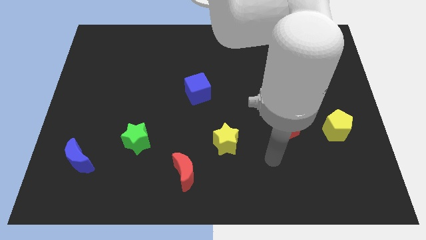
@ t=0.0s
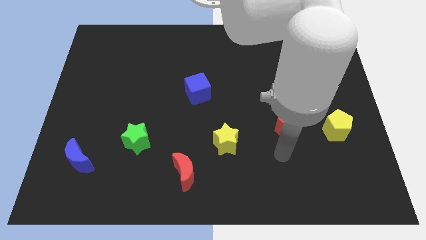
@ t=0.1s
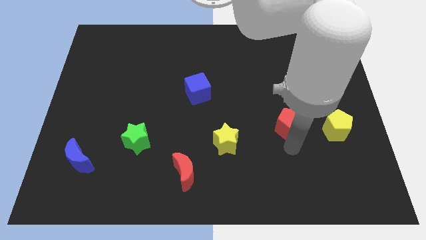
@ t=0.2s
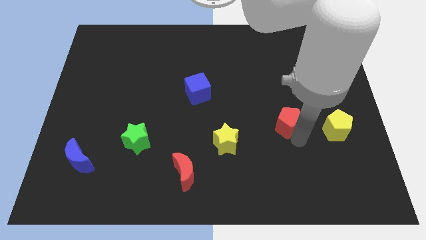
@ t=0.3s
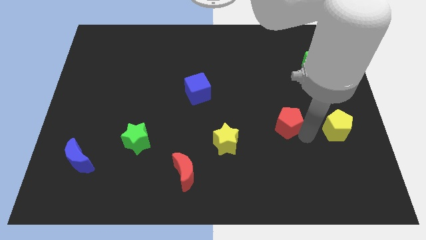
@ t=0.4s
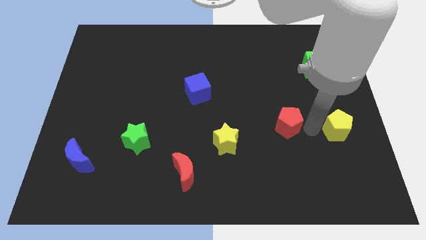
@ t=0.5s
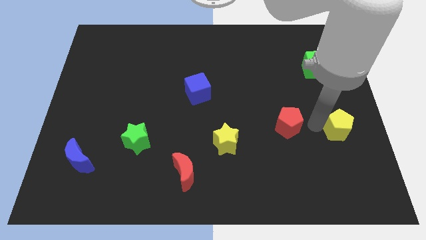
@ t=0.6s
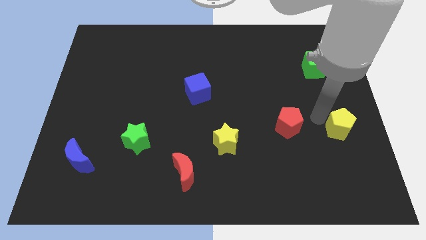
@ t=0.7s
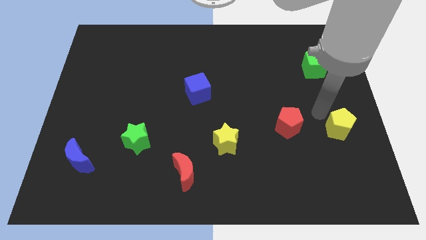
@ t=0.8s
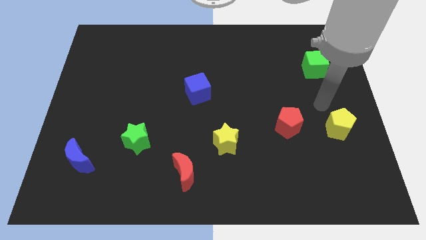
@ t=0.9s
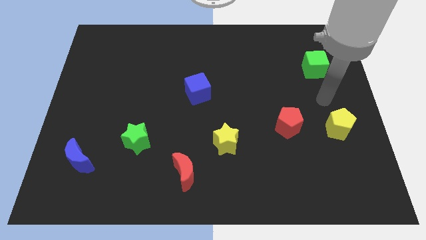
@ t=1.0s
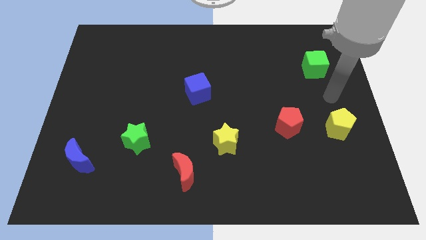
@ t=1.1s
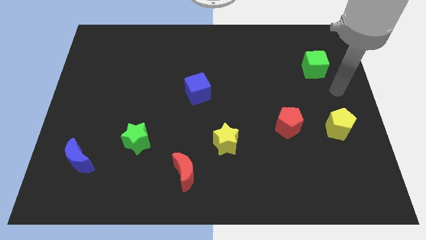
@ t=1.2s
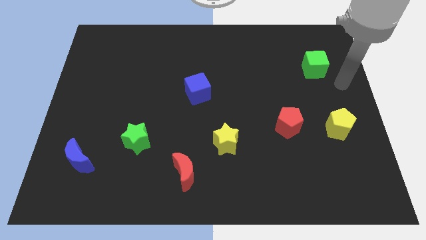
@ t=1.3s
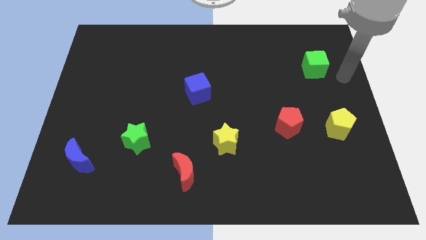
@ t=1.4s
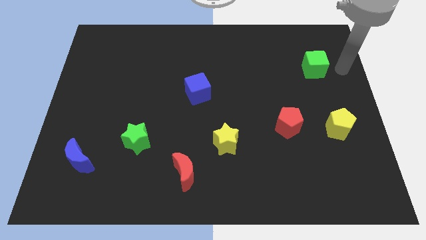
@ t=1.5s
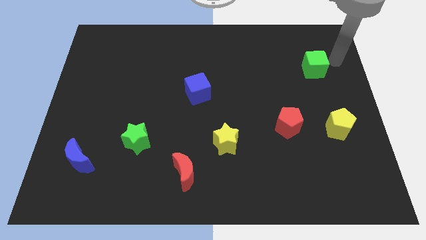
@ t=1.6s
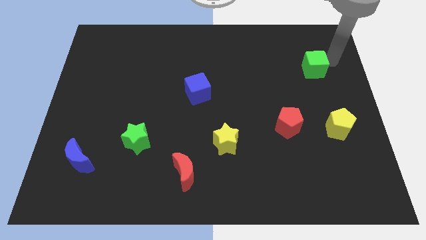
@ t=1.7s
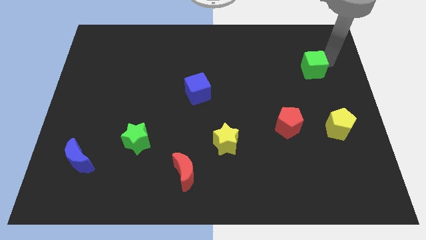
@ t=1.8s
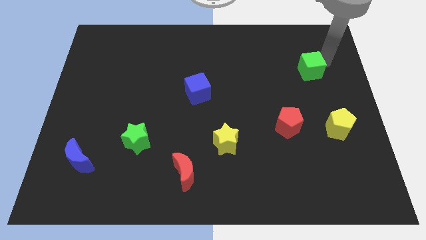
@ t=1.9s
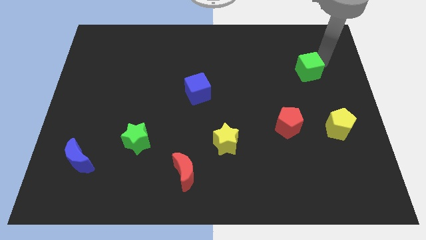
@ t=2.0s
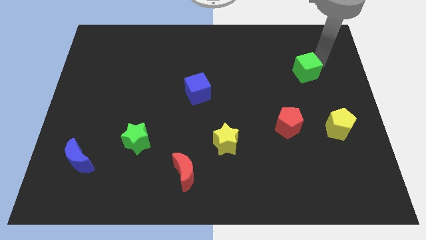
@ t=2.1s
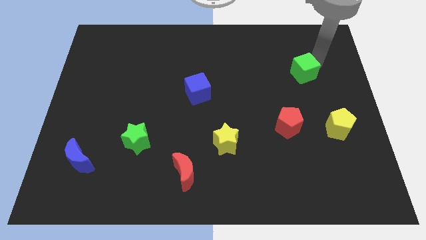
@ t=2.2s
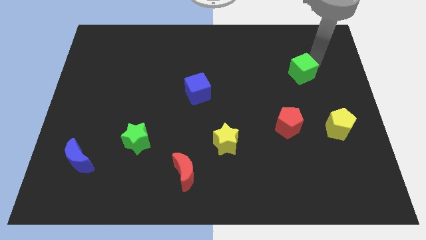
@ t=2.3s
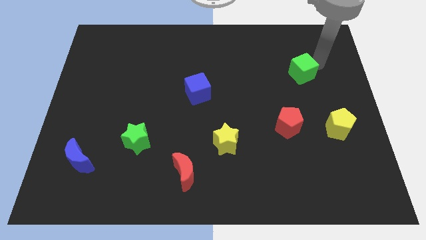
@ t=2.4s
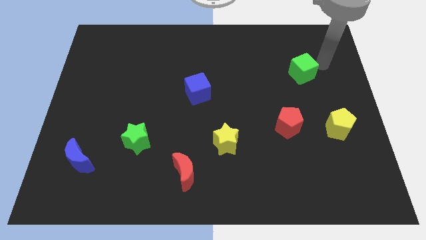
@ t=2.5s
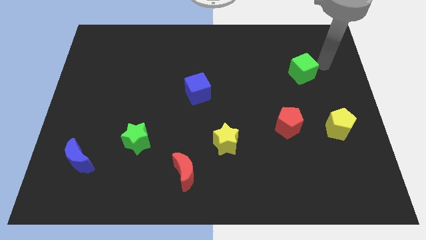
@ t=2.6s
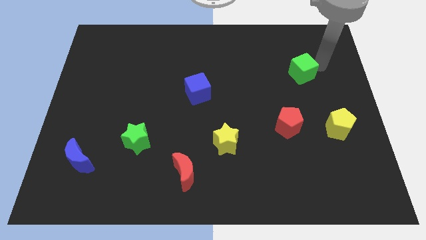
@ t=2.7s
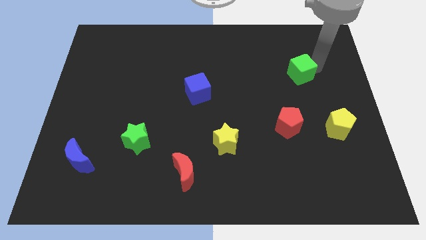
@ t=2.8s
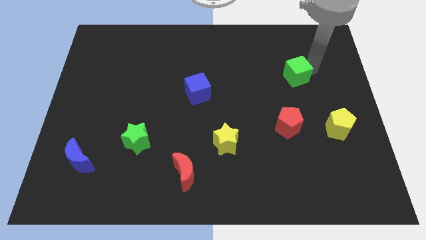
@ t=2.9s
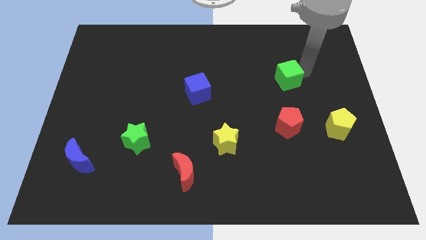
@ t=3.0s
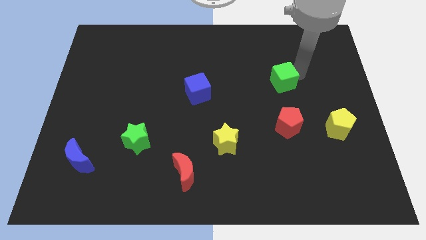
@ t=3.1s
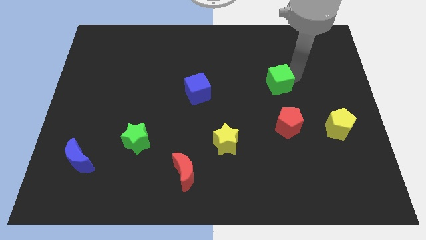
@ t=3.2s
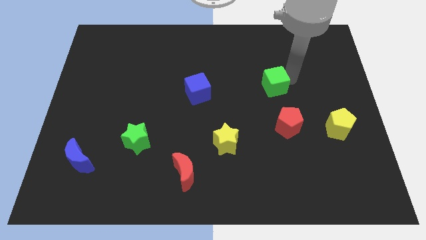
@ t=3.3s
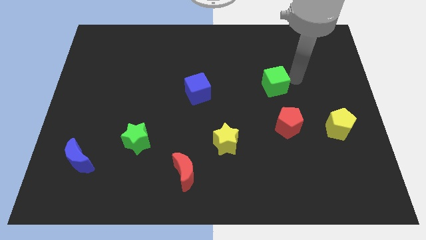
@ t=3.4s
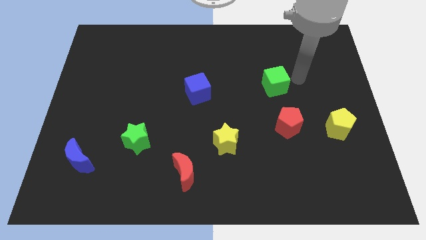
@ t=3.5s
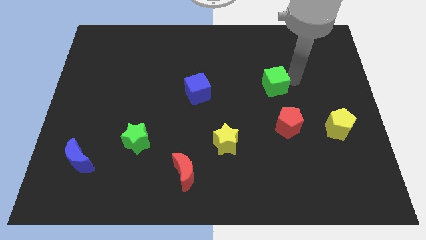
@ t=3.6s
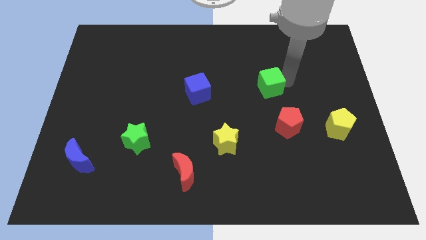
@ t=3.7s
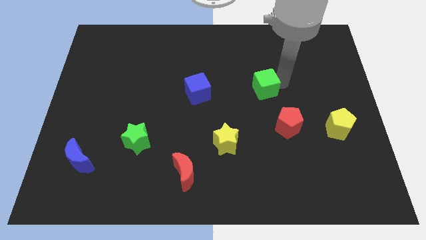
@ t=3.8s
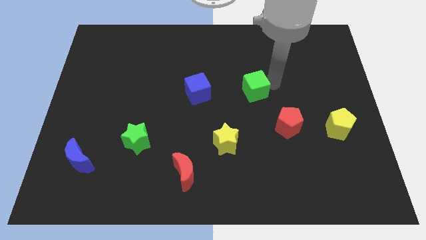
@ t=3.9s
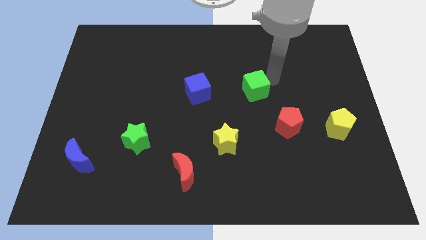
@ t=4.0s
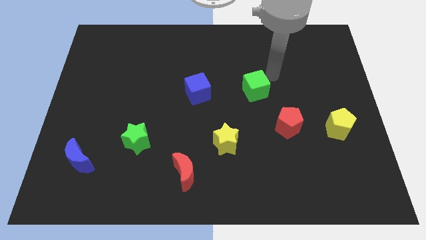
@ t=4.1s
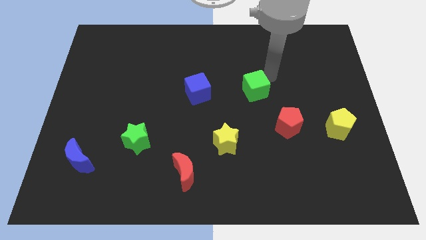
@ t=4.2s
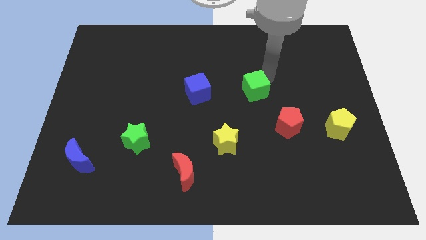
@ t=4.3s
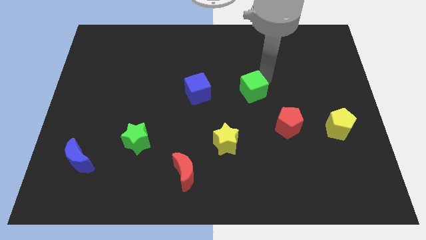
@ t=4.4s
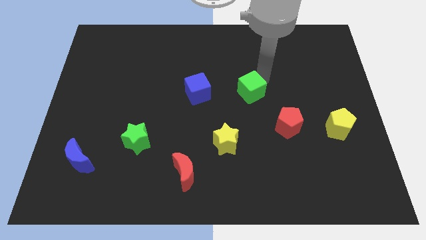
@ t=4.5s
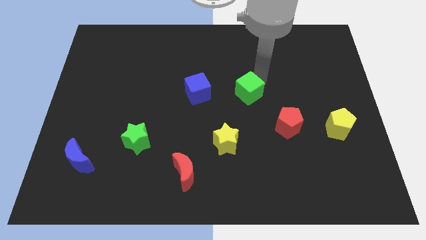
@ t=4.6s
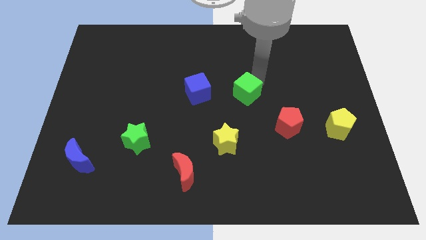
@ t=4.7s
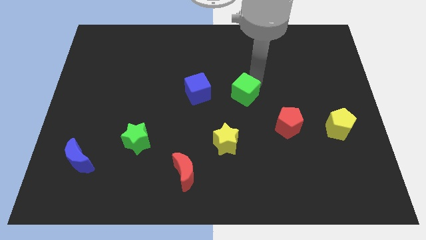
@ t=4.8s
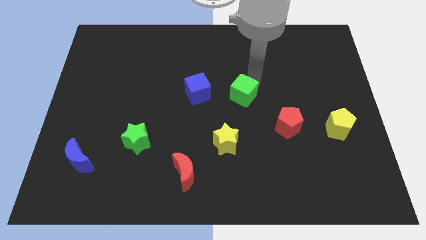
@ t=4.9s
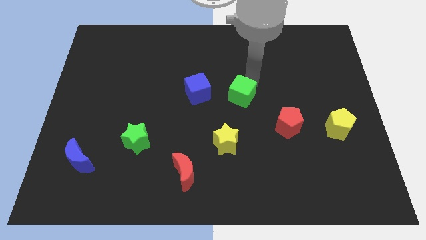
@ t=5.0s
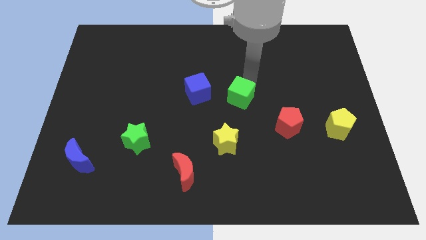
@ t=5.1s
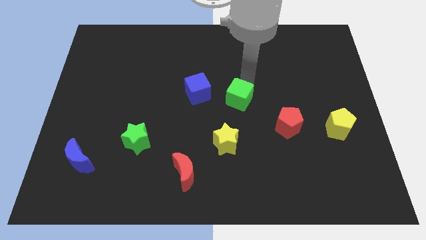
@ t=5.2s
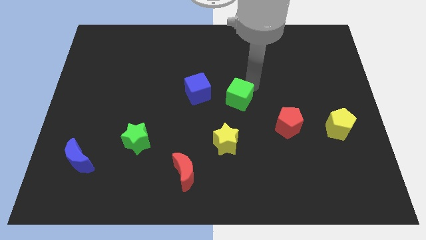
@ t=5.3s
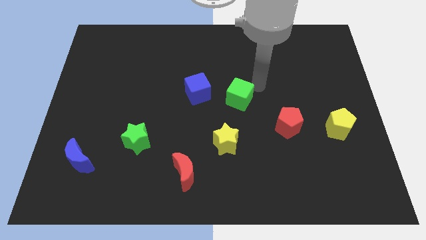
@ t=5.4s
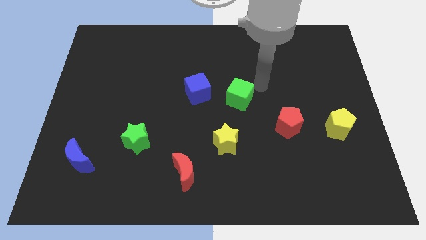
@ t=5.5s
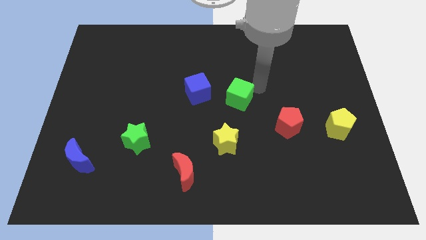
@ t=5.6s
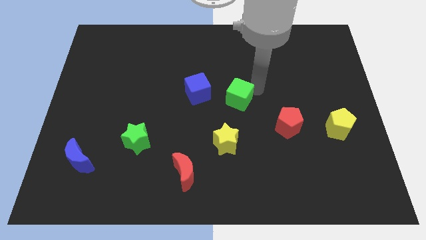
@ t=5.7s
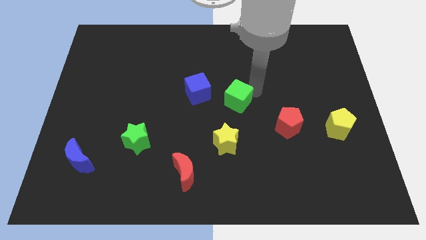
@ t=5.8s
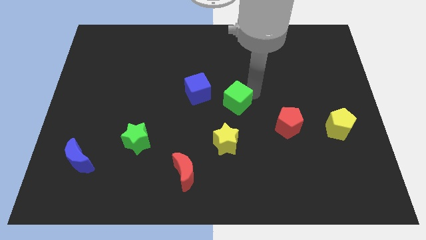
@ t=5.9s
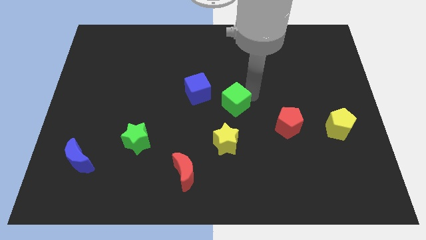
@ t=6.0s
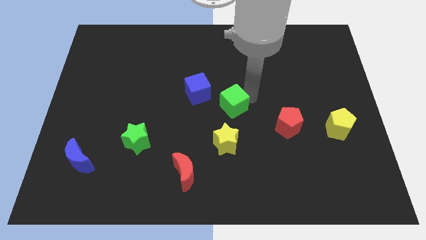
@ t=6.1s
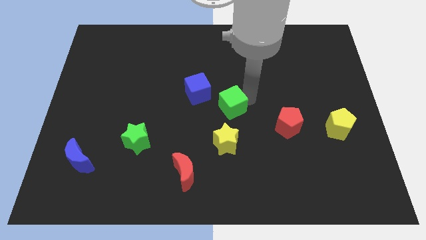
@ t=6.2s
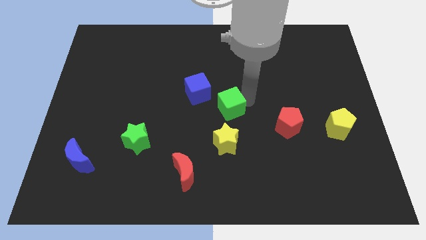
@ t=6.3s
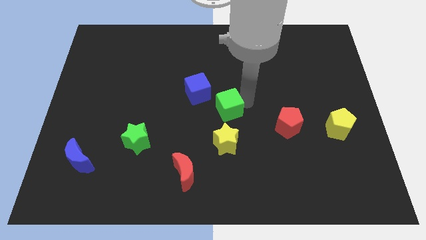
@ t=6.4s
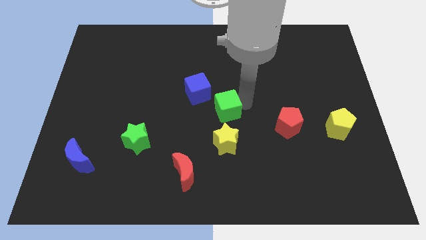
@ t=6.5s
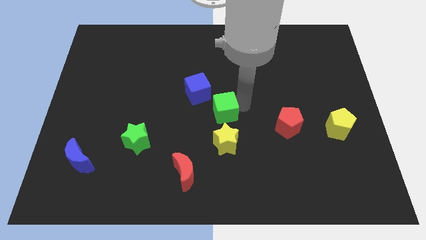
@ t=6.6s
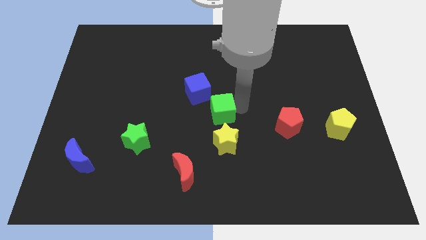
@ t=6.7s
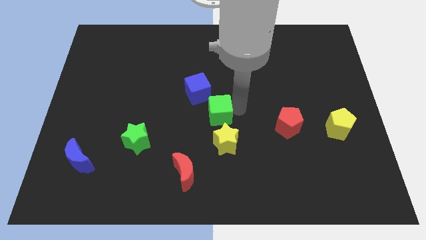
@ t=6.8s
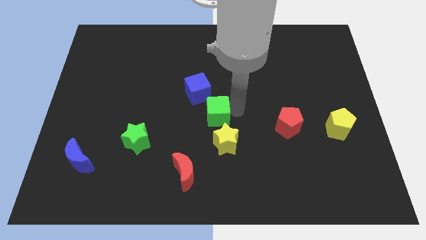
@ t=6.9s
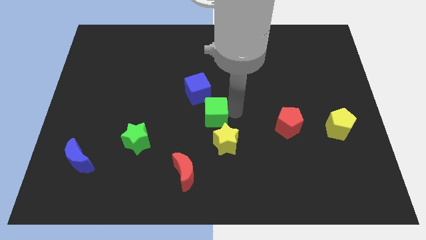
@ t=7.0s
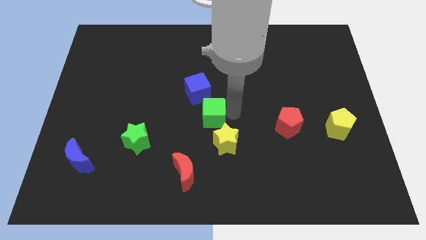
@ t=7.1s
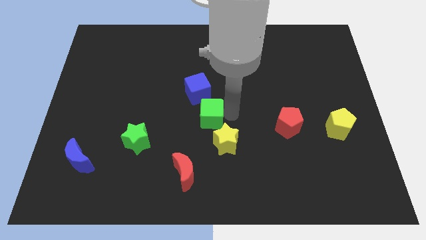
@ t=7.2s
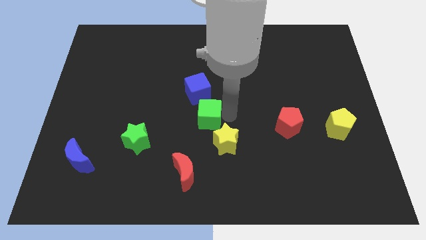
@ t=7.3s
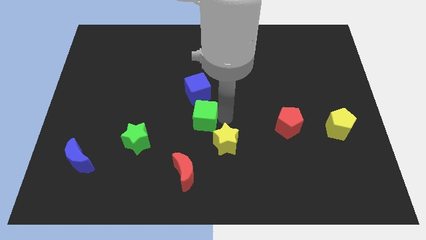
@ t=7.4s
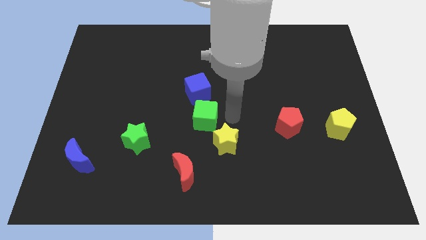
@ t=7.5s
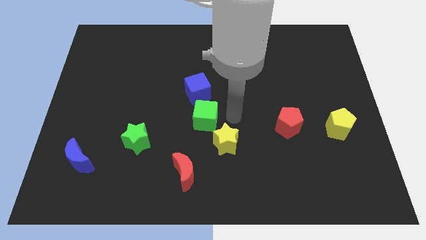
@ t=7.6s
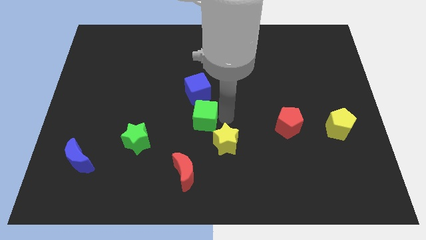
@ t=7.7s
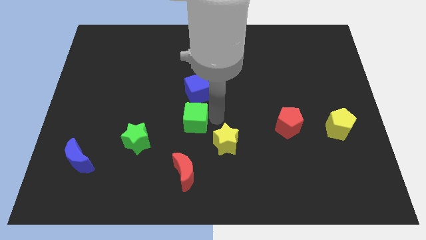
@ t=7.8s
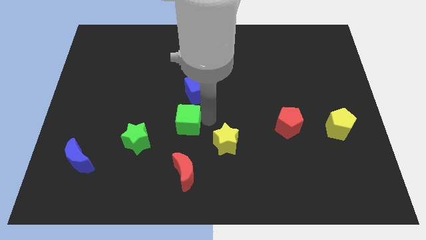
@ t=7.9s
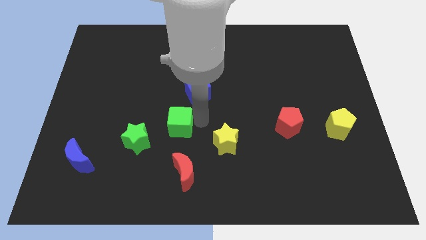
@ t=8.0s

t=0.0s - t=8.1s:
put the green cube diagonally up and to the right of the green star

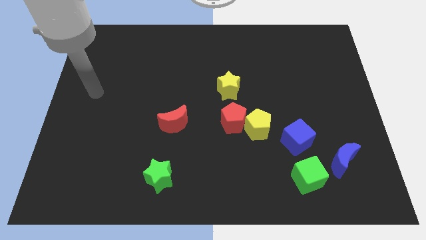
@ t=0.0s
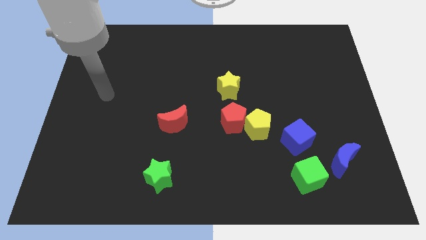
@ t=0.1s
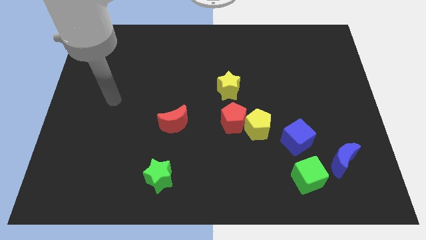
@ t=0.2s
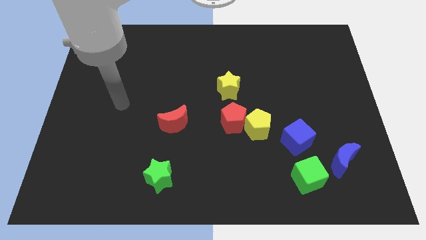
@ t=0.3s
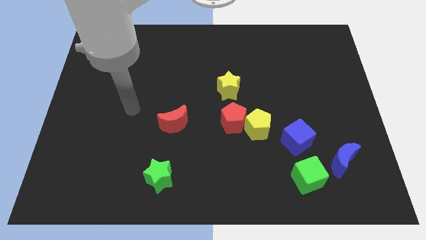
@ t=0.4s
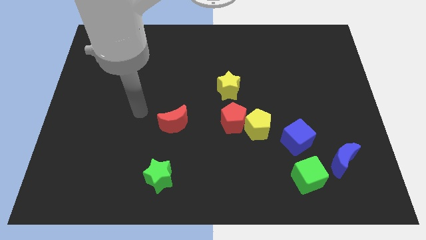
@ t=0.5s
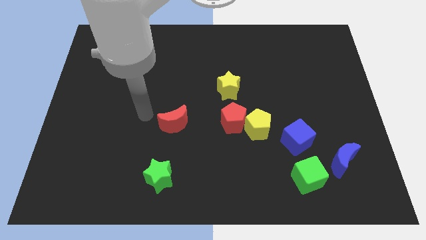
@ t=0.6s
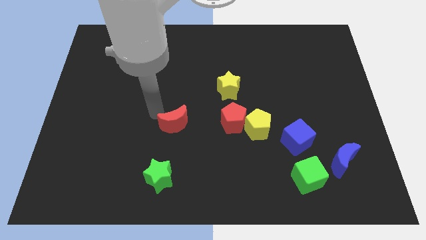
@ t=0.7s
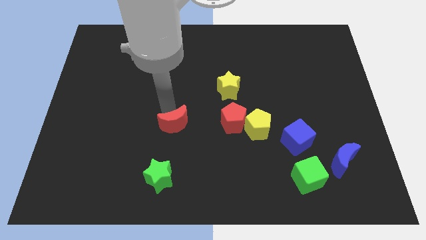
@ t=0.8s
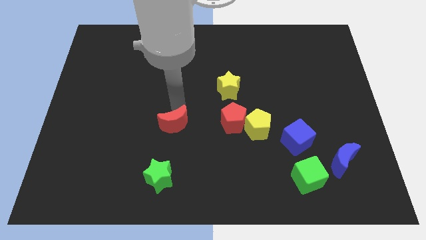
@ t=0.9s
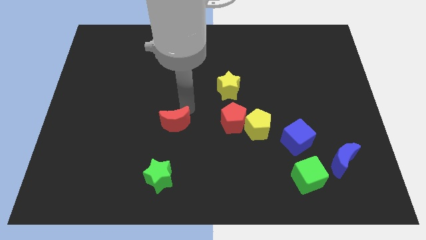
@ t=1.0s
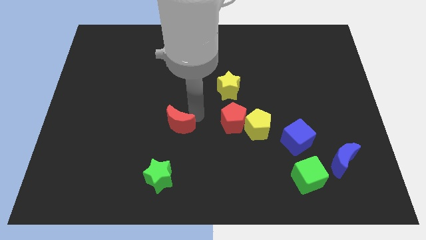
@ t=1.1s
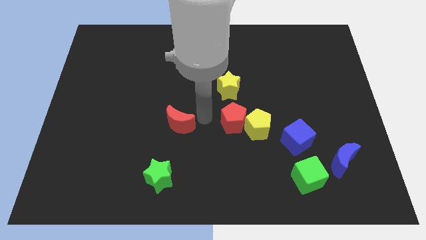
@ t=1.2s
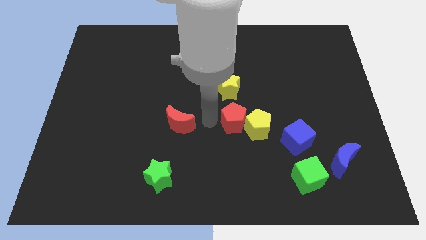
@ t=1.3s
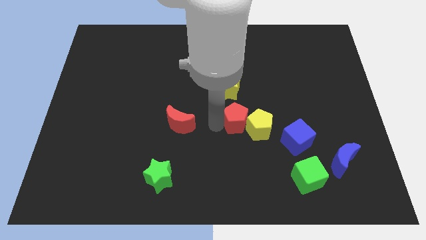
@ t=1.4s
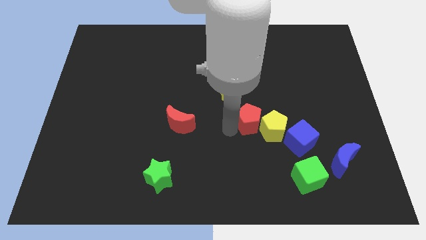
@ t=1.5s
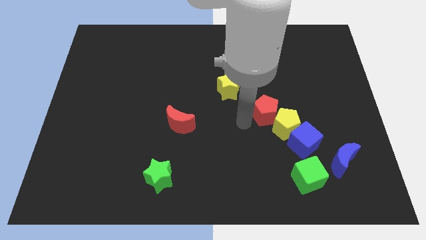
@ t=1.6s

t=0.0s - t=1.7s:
put the yellow pentagon to the top of the green cube
